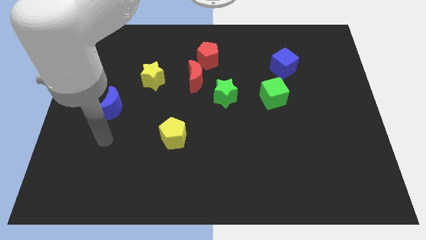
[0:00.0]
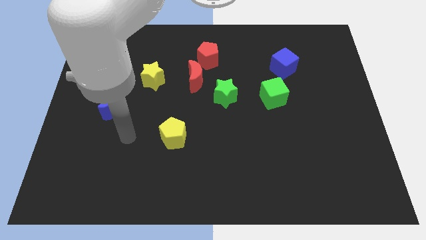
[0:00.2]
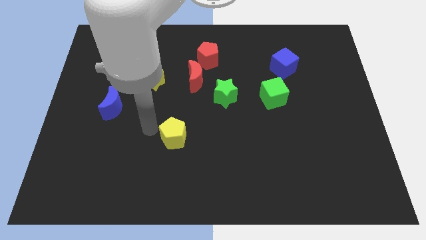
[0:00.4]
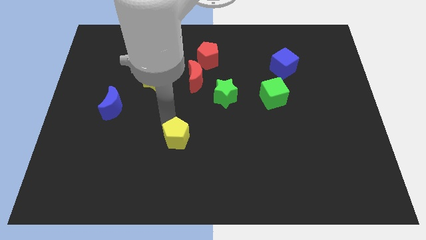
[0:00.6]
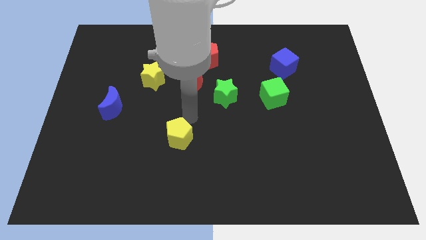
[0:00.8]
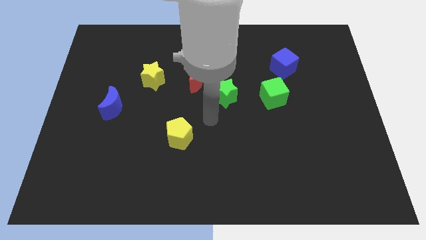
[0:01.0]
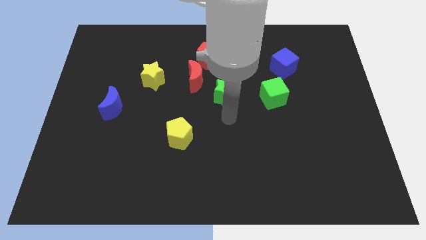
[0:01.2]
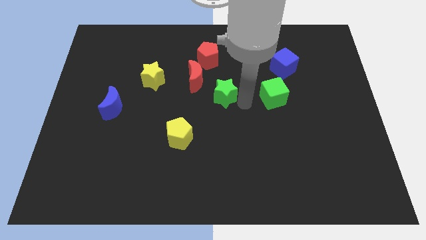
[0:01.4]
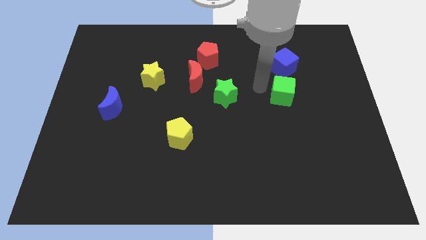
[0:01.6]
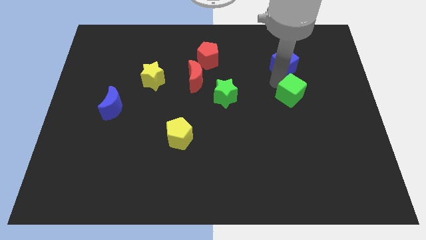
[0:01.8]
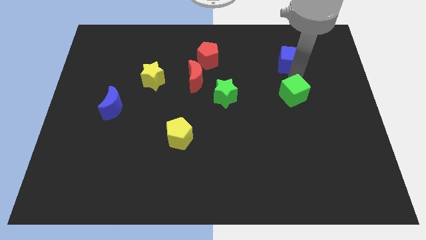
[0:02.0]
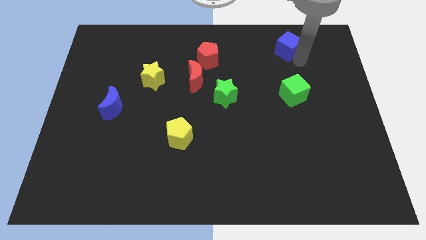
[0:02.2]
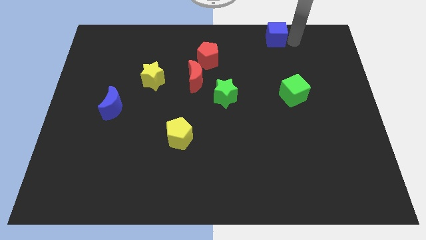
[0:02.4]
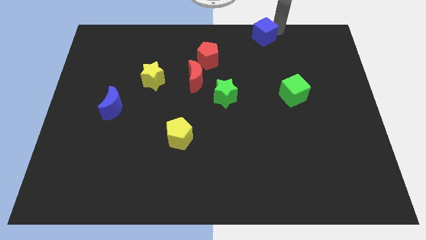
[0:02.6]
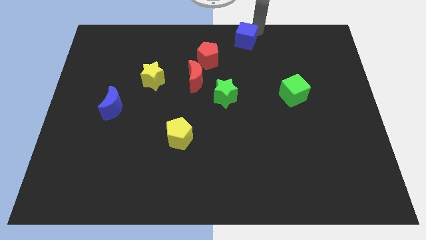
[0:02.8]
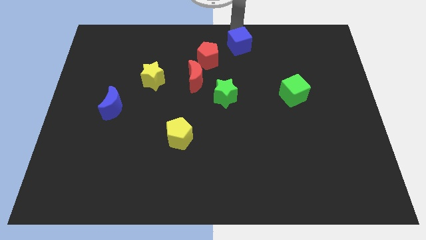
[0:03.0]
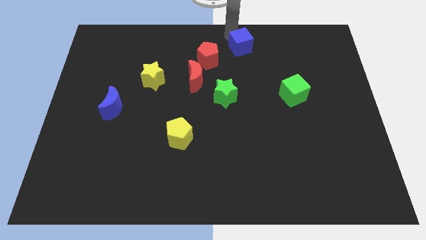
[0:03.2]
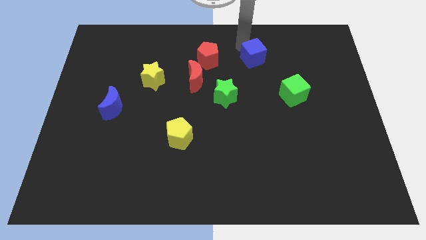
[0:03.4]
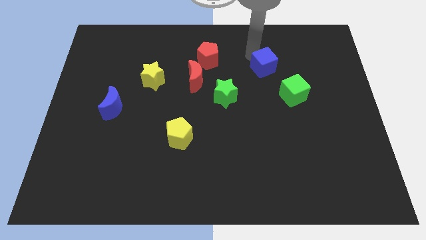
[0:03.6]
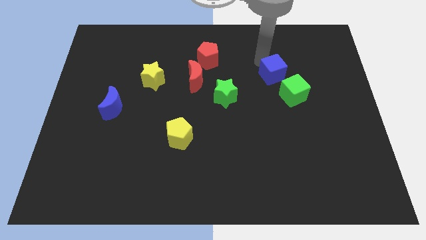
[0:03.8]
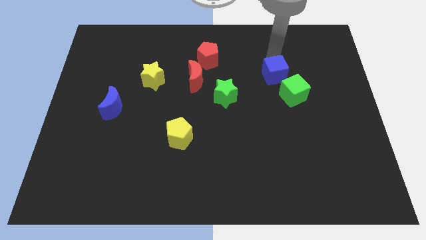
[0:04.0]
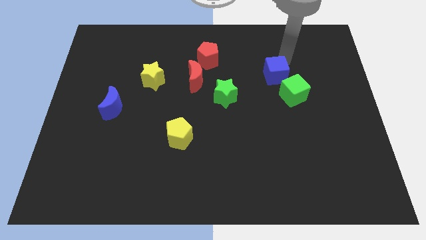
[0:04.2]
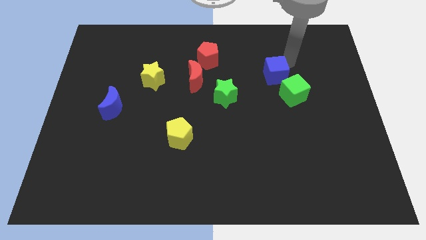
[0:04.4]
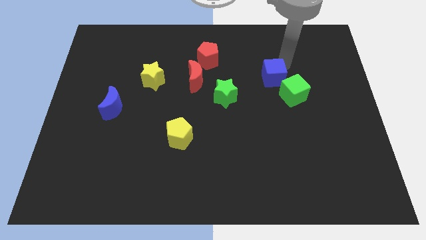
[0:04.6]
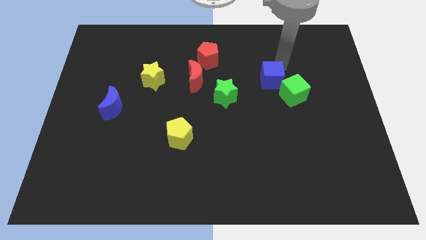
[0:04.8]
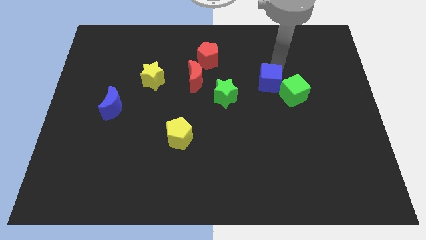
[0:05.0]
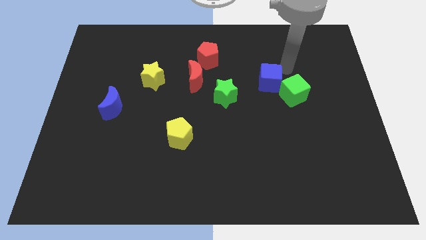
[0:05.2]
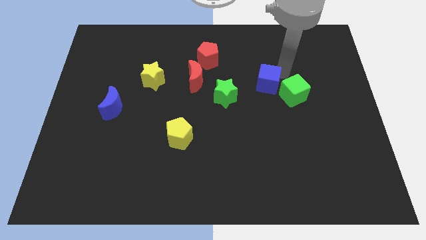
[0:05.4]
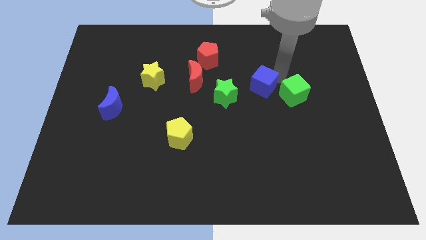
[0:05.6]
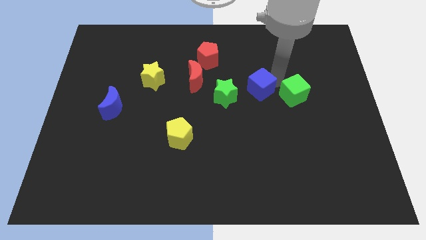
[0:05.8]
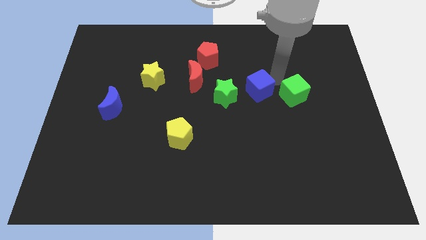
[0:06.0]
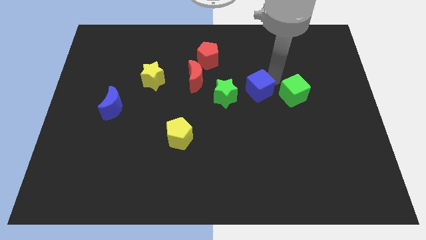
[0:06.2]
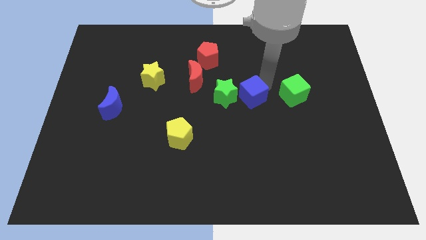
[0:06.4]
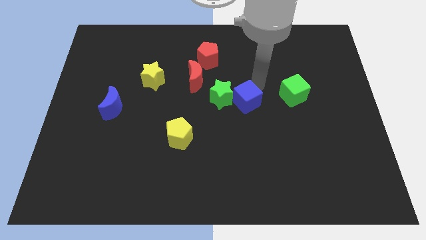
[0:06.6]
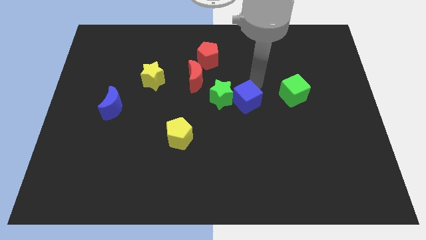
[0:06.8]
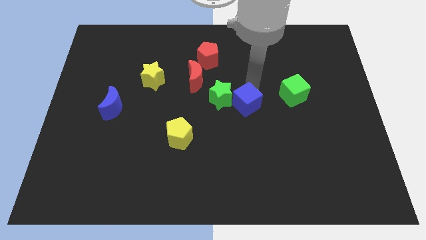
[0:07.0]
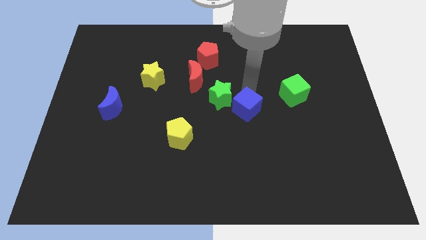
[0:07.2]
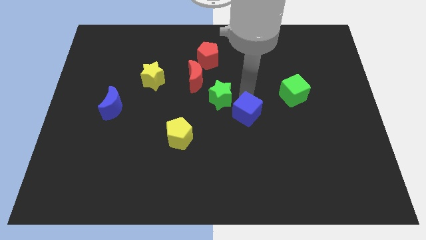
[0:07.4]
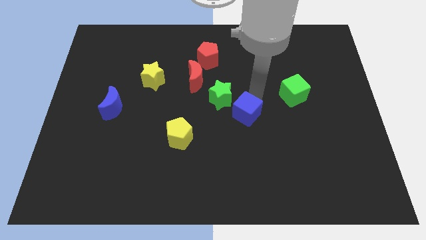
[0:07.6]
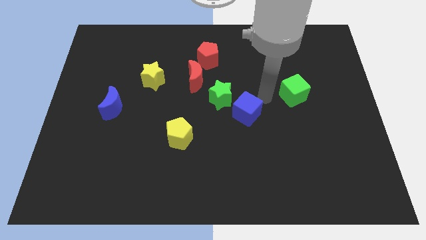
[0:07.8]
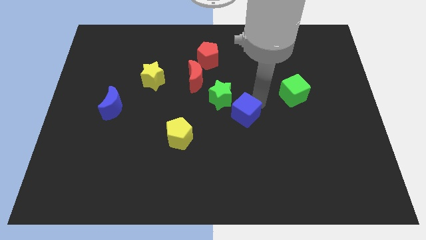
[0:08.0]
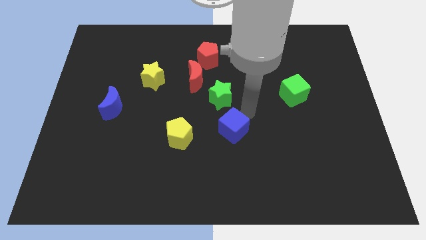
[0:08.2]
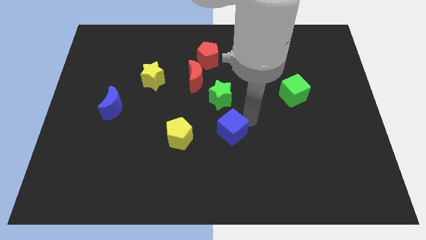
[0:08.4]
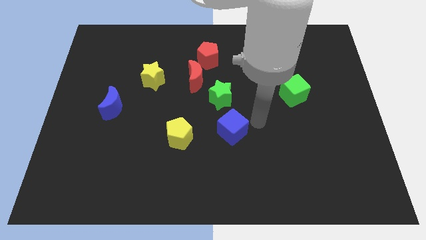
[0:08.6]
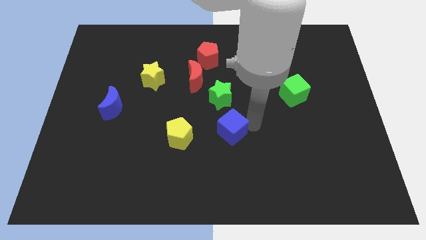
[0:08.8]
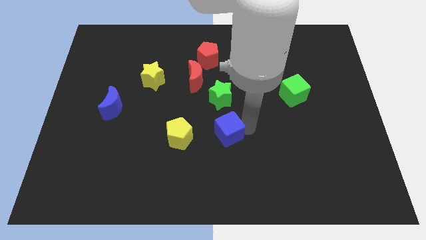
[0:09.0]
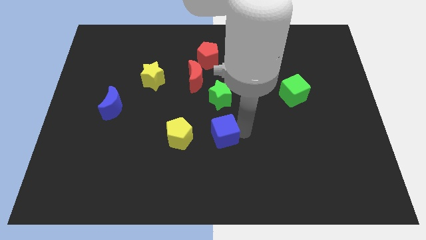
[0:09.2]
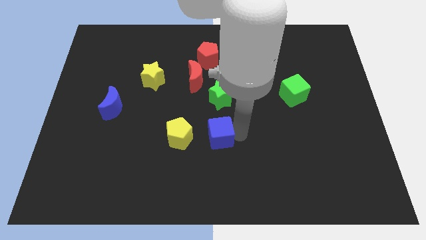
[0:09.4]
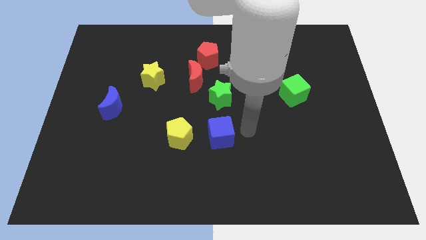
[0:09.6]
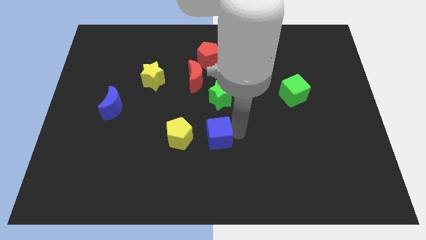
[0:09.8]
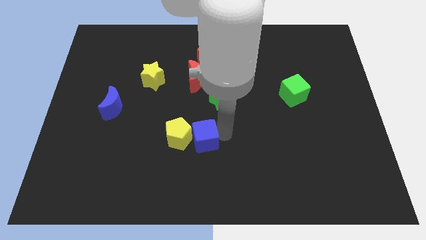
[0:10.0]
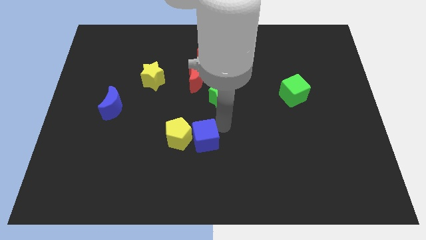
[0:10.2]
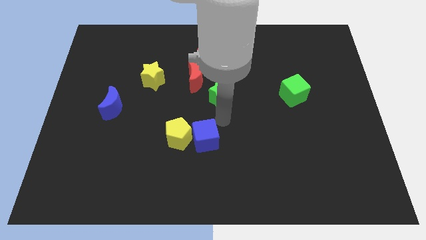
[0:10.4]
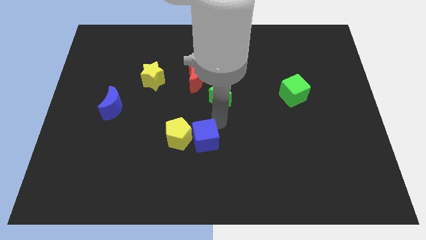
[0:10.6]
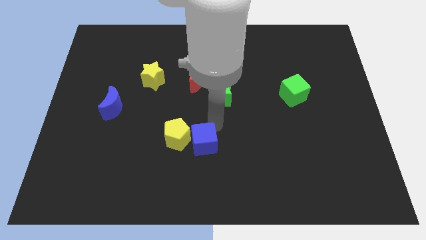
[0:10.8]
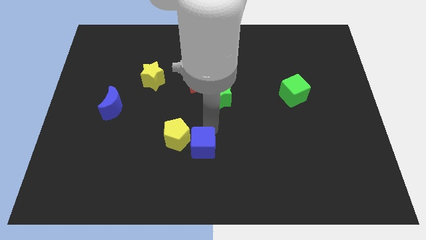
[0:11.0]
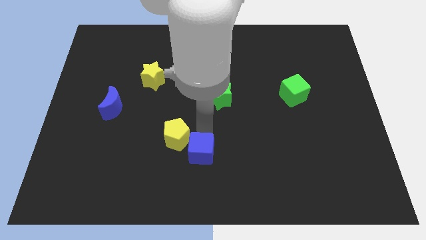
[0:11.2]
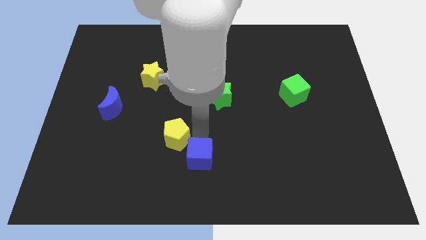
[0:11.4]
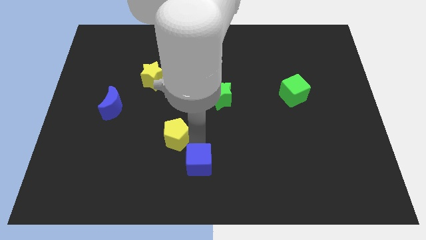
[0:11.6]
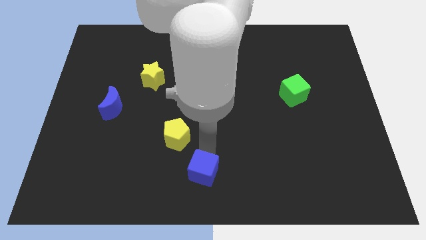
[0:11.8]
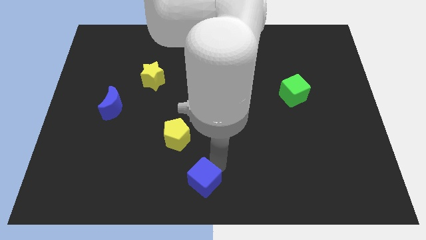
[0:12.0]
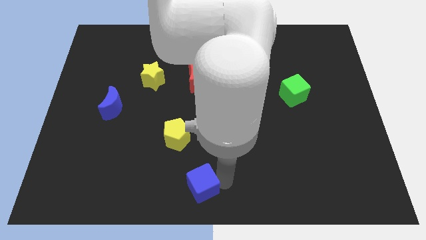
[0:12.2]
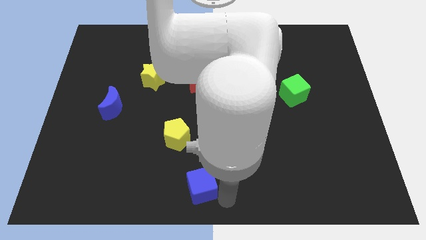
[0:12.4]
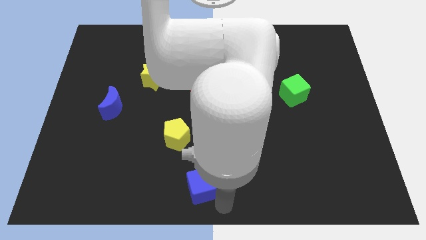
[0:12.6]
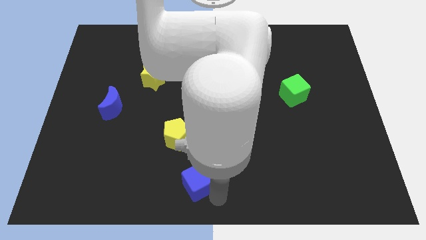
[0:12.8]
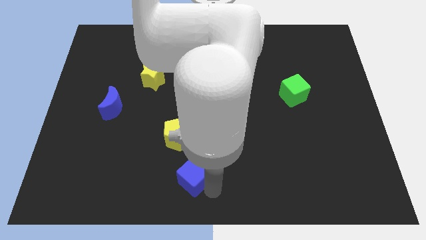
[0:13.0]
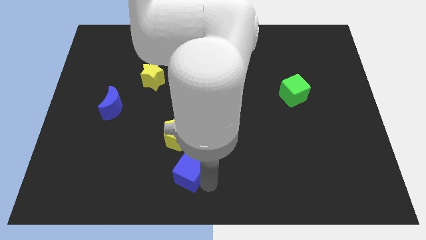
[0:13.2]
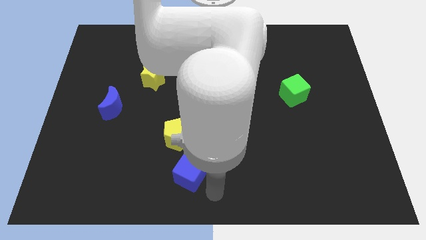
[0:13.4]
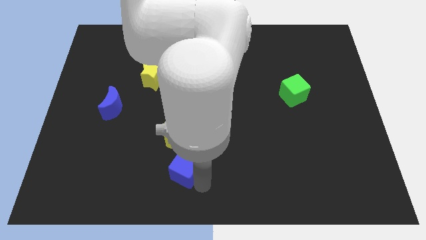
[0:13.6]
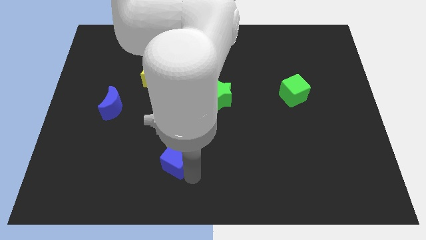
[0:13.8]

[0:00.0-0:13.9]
push the blue cube to the bottom left of the yellow pentagon

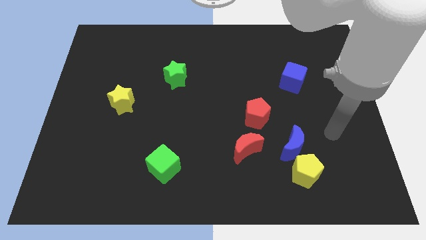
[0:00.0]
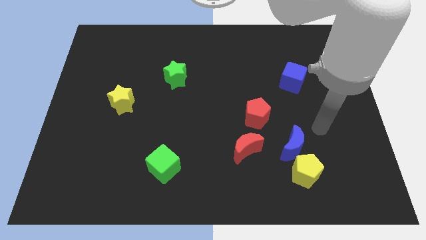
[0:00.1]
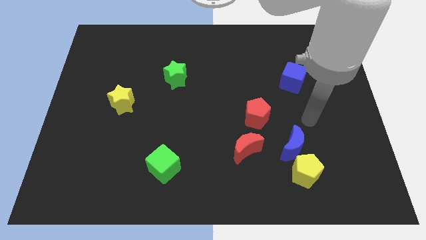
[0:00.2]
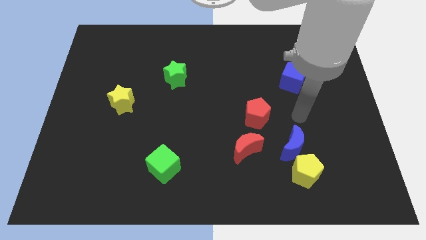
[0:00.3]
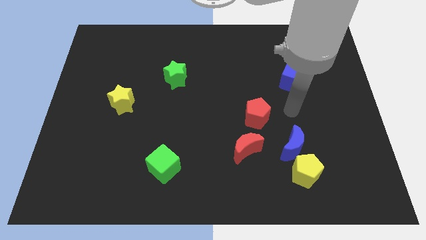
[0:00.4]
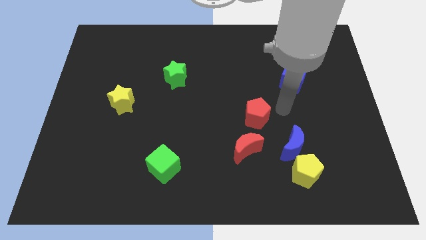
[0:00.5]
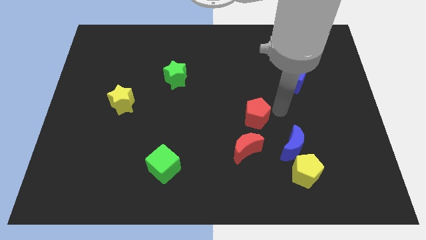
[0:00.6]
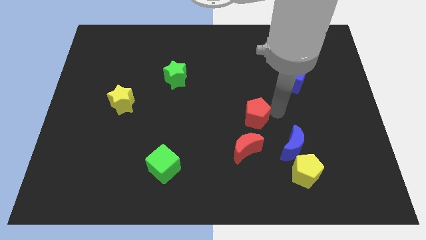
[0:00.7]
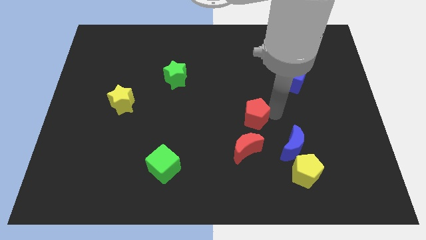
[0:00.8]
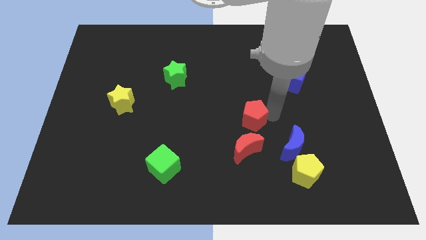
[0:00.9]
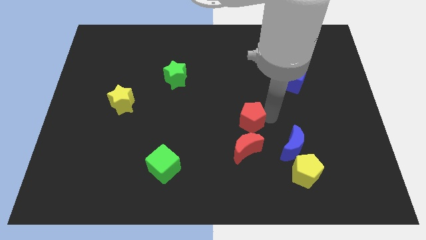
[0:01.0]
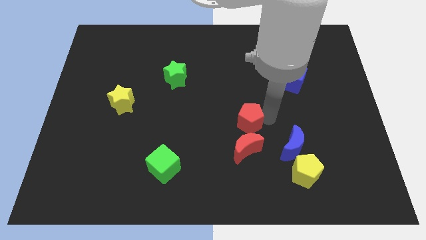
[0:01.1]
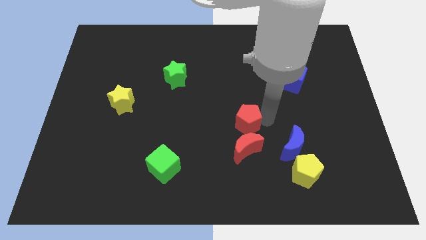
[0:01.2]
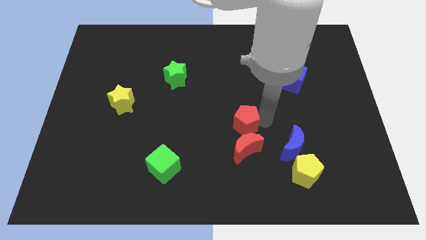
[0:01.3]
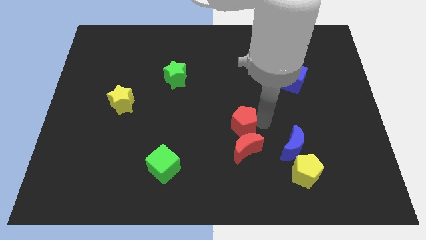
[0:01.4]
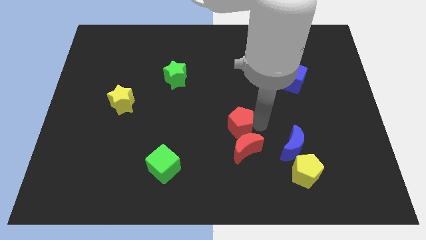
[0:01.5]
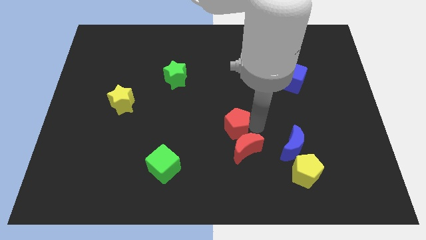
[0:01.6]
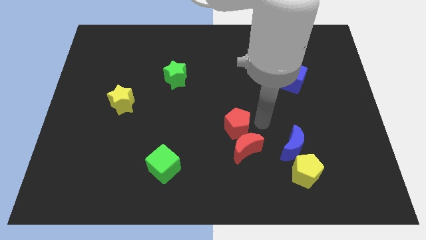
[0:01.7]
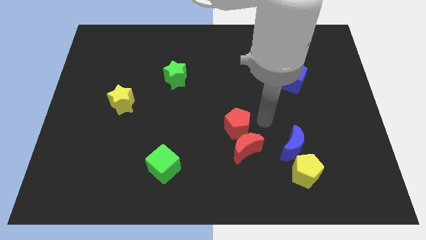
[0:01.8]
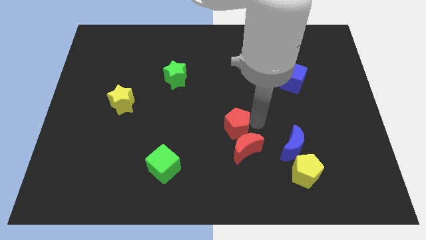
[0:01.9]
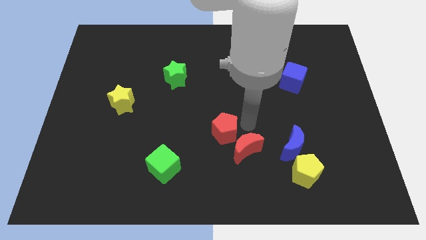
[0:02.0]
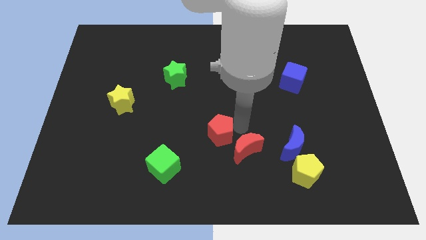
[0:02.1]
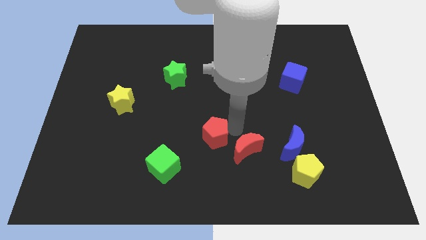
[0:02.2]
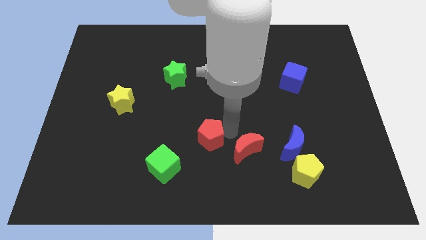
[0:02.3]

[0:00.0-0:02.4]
move the red pentagon to the top right of the green cube
